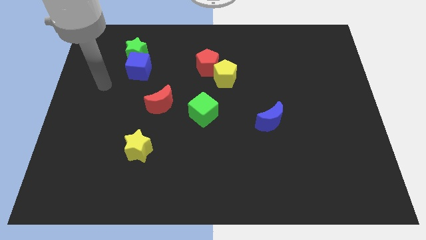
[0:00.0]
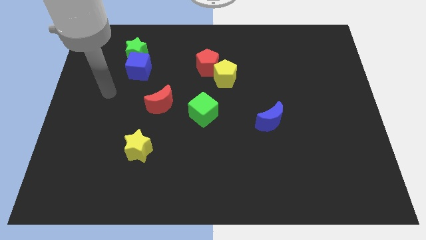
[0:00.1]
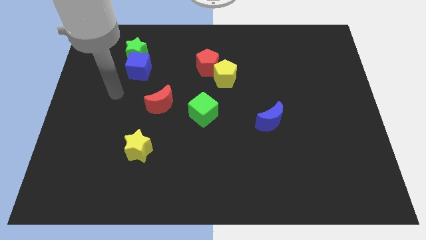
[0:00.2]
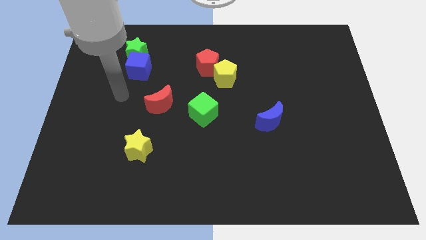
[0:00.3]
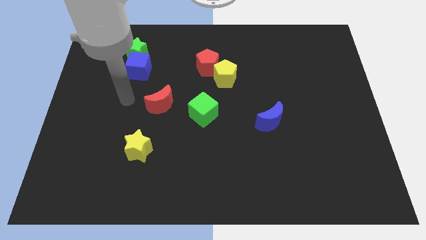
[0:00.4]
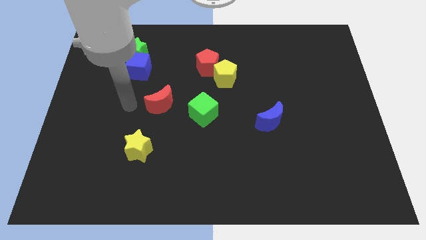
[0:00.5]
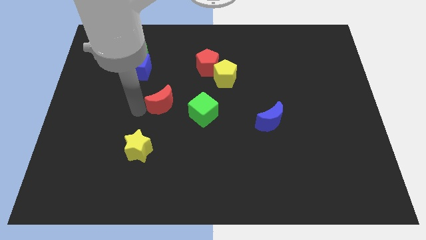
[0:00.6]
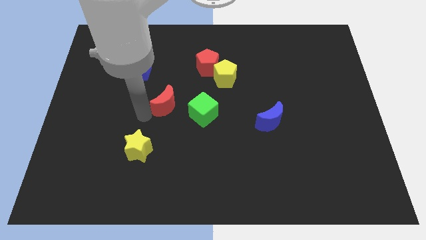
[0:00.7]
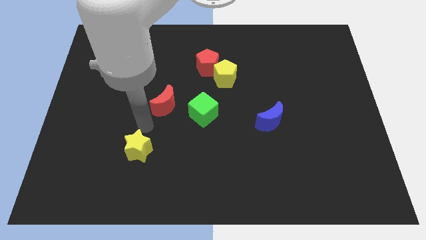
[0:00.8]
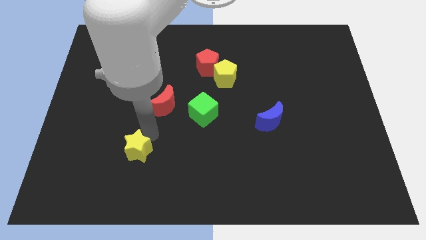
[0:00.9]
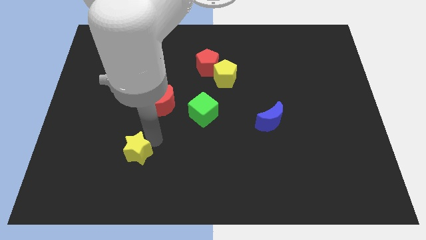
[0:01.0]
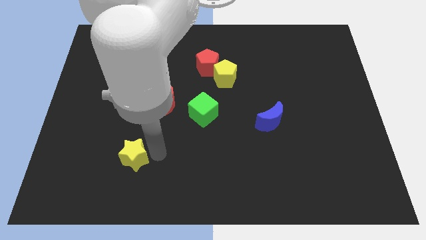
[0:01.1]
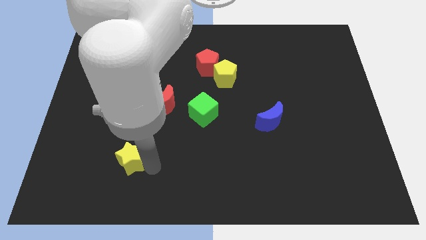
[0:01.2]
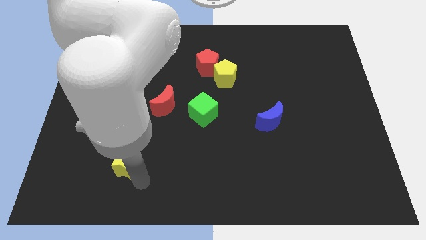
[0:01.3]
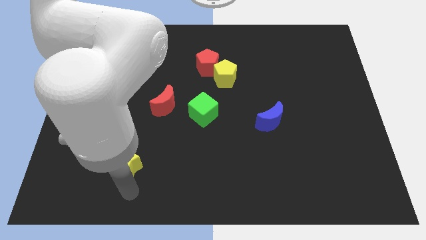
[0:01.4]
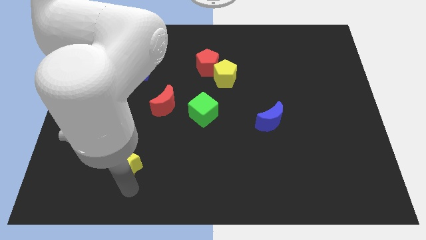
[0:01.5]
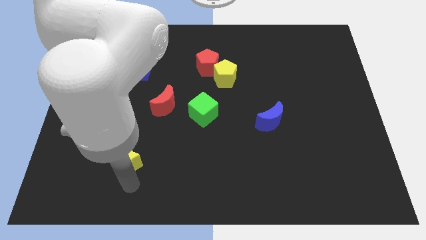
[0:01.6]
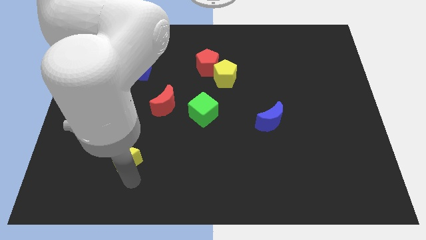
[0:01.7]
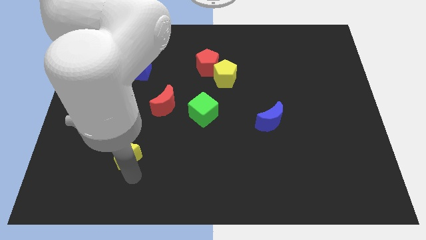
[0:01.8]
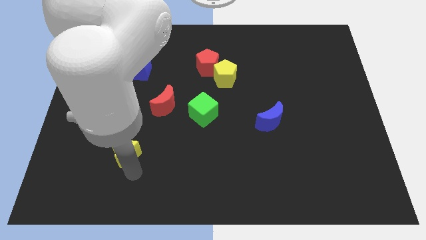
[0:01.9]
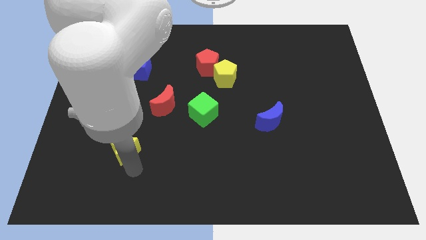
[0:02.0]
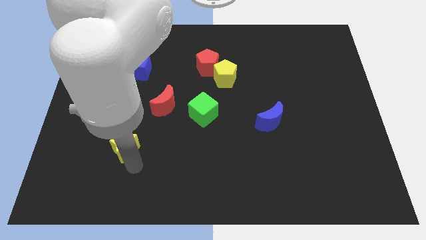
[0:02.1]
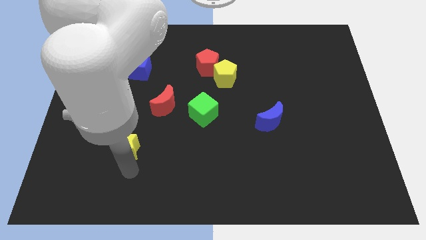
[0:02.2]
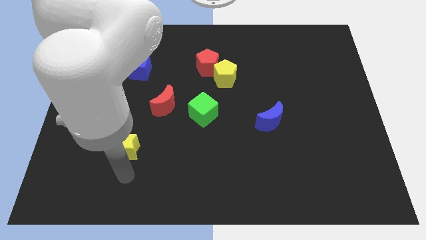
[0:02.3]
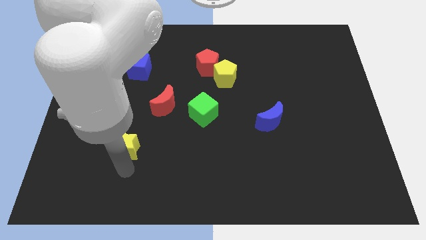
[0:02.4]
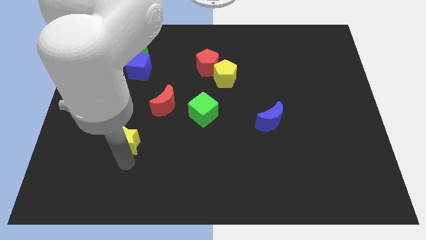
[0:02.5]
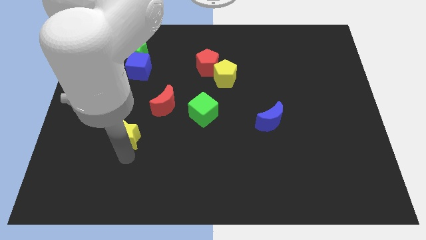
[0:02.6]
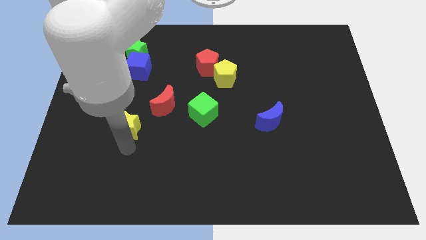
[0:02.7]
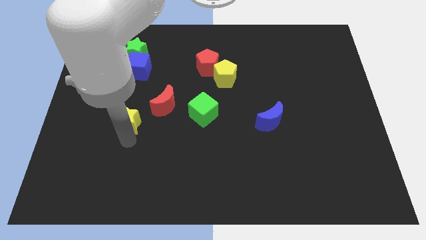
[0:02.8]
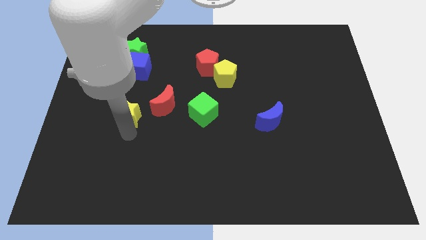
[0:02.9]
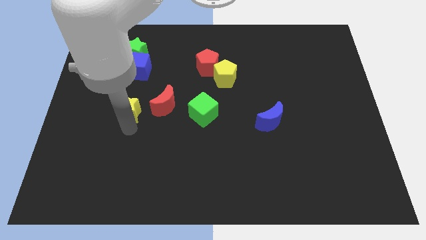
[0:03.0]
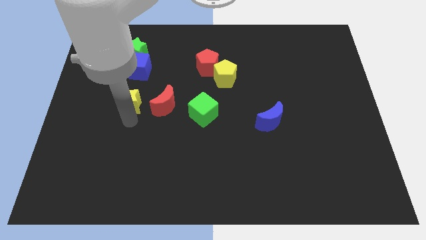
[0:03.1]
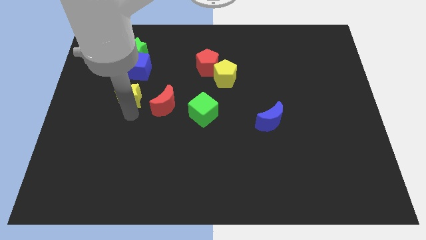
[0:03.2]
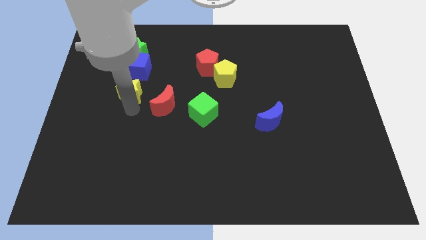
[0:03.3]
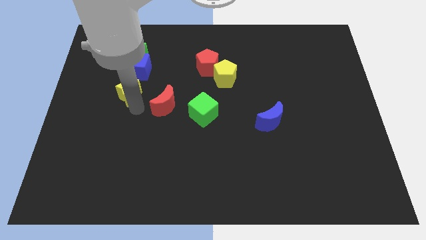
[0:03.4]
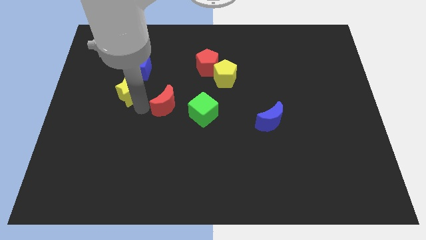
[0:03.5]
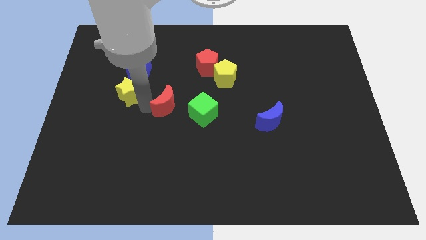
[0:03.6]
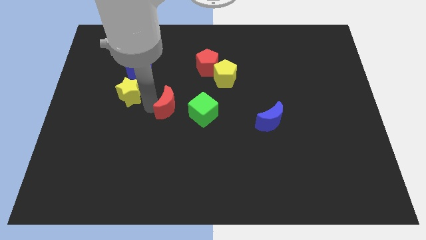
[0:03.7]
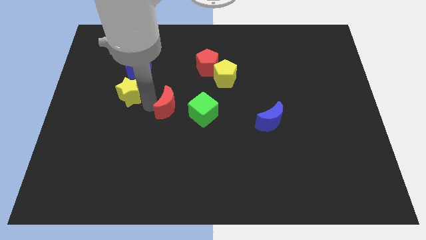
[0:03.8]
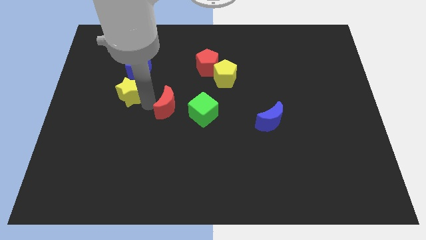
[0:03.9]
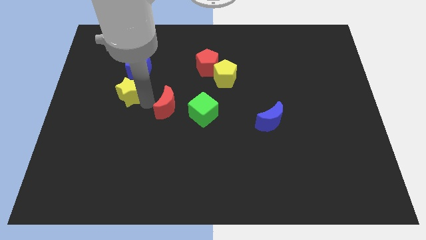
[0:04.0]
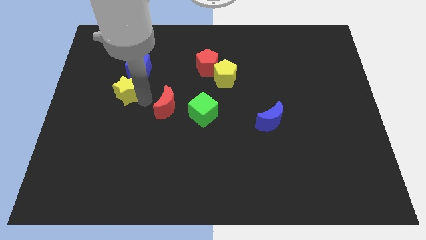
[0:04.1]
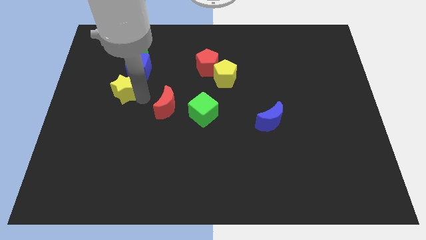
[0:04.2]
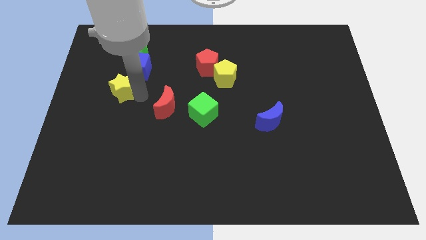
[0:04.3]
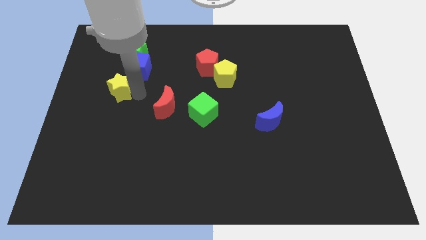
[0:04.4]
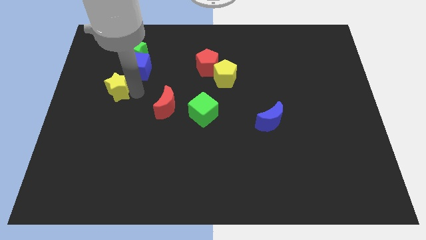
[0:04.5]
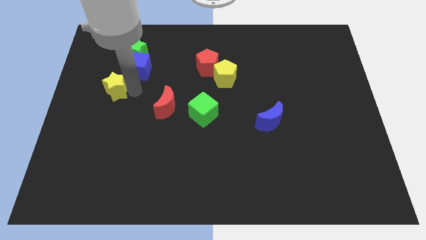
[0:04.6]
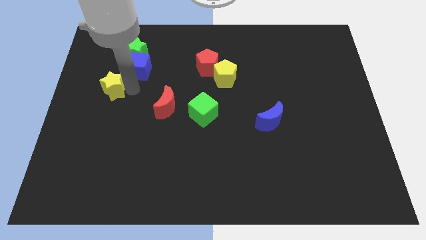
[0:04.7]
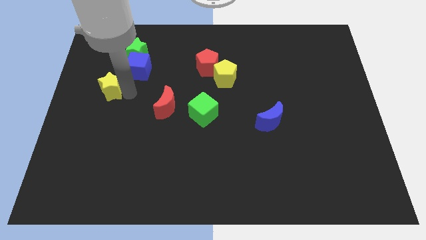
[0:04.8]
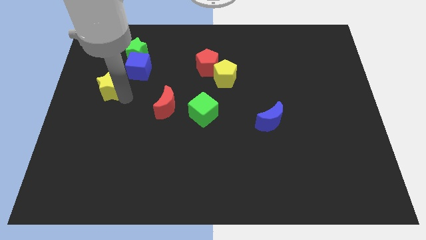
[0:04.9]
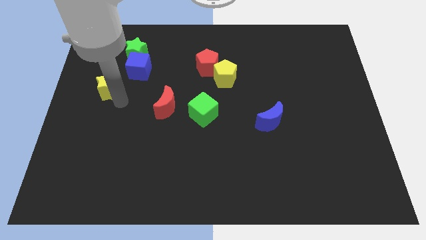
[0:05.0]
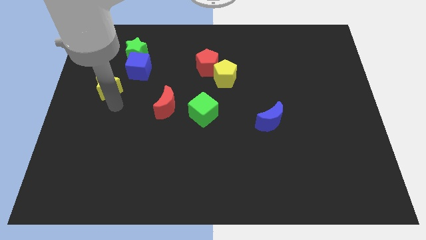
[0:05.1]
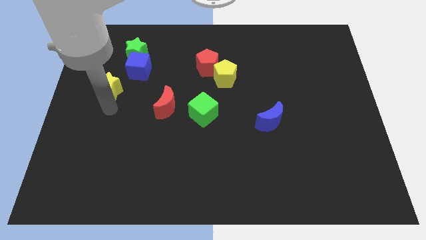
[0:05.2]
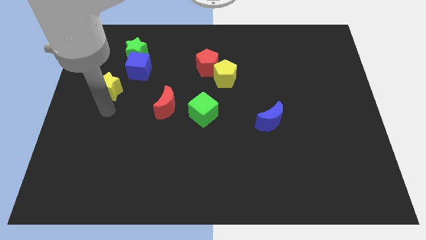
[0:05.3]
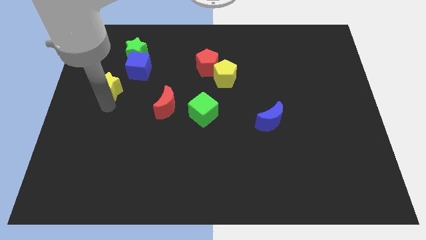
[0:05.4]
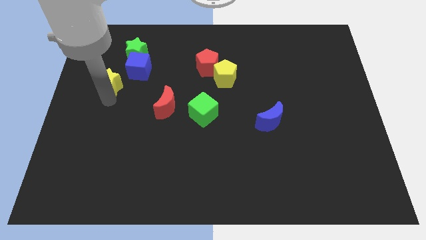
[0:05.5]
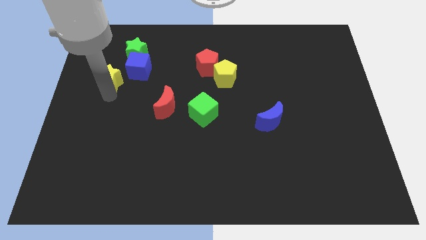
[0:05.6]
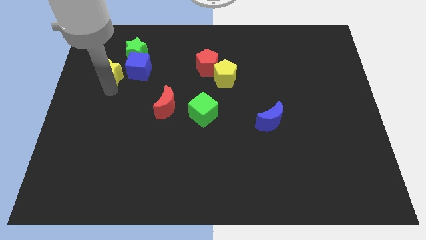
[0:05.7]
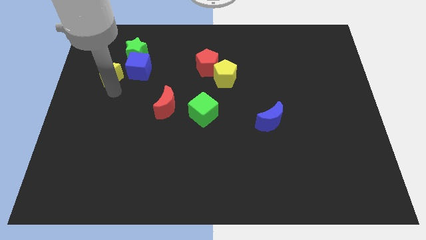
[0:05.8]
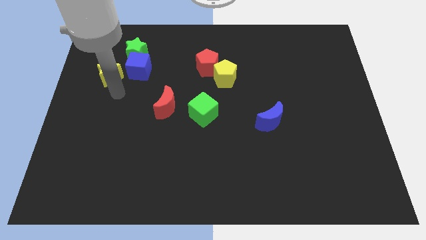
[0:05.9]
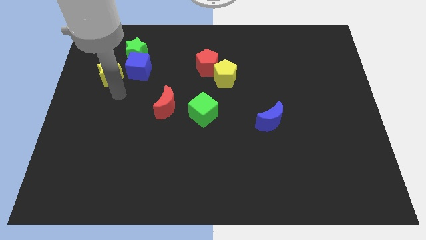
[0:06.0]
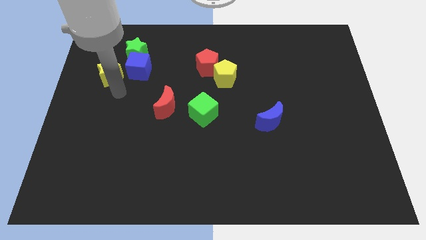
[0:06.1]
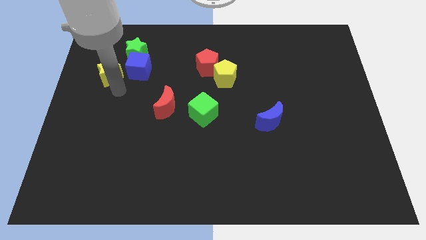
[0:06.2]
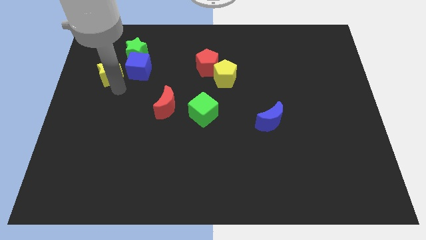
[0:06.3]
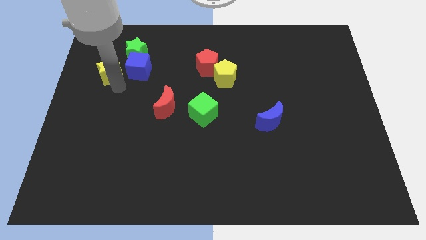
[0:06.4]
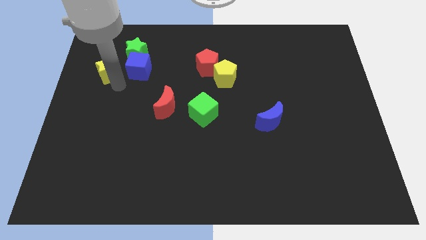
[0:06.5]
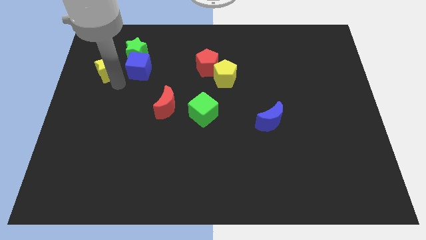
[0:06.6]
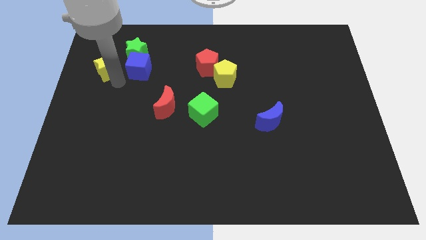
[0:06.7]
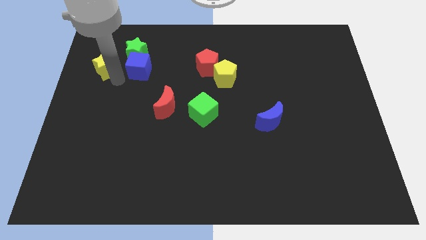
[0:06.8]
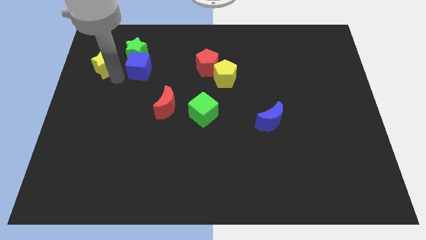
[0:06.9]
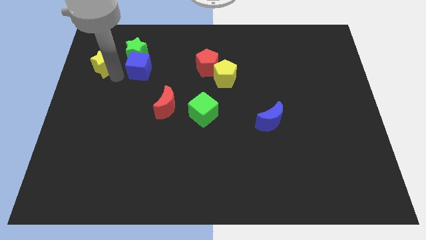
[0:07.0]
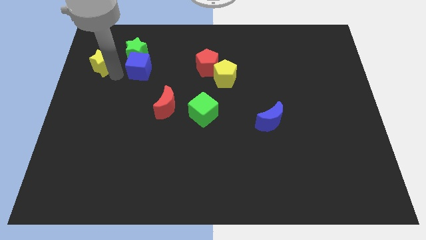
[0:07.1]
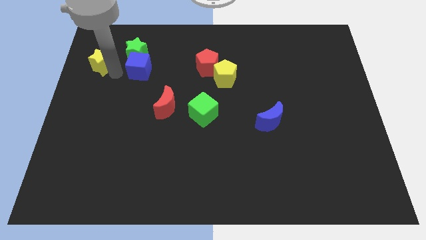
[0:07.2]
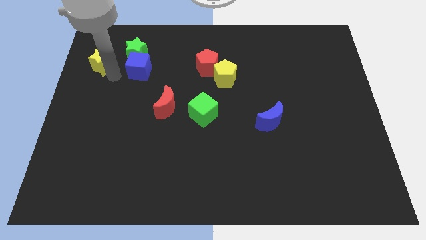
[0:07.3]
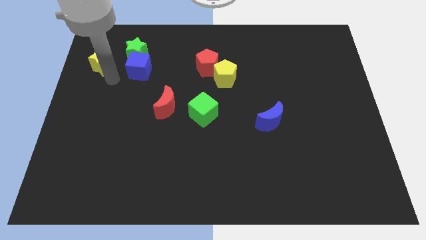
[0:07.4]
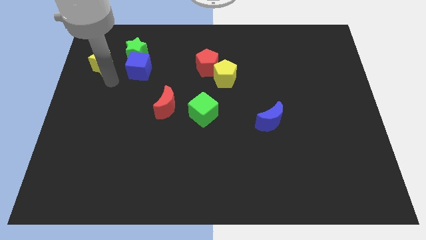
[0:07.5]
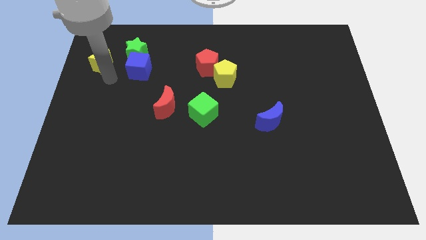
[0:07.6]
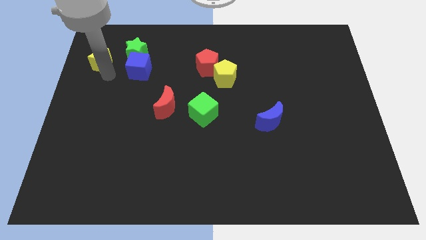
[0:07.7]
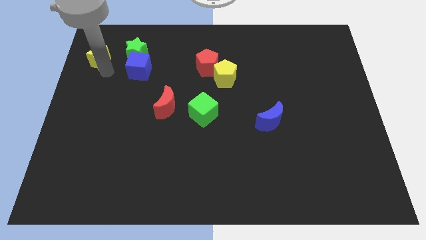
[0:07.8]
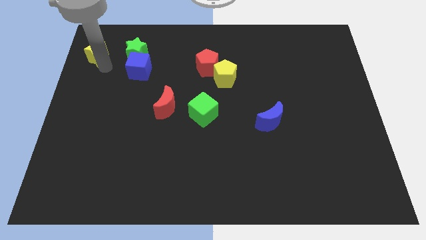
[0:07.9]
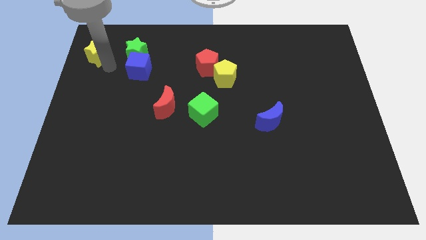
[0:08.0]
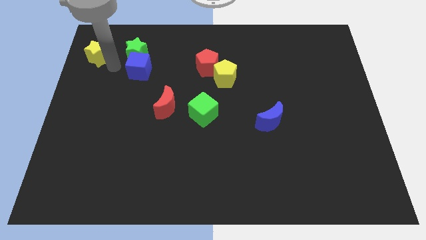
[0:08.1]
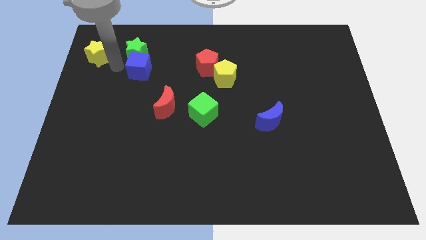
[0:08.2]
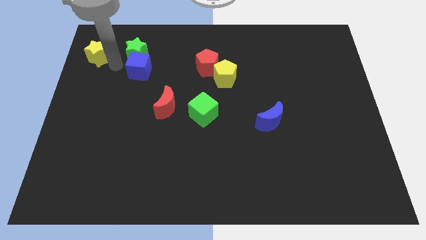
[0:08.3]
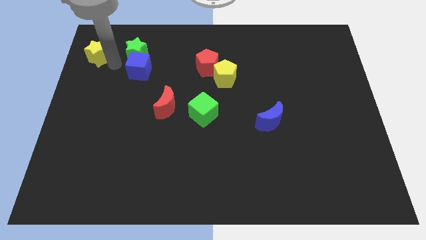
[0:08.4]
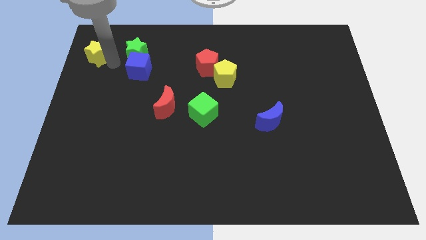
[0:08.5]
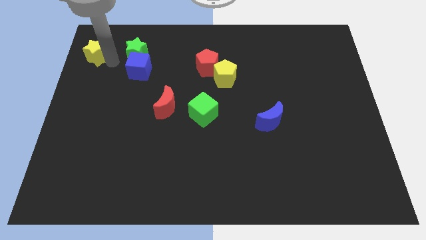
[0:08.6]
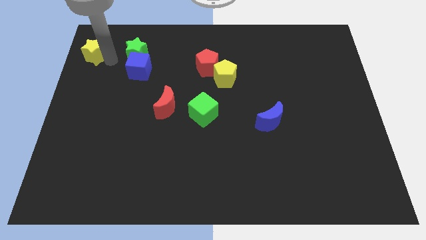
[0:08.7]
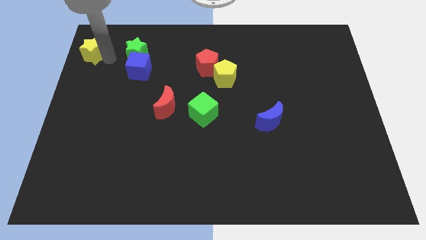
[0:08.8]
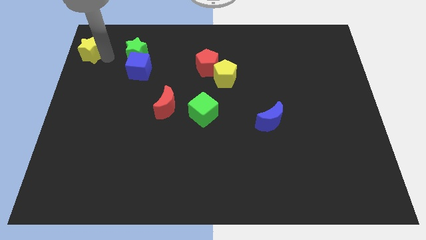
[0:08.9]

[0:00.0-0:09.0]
put the yellow star to the top left
